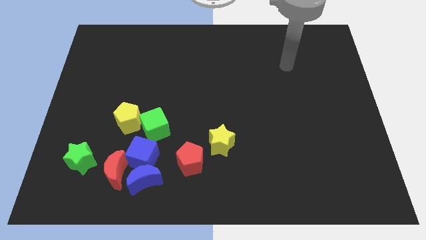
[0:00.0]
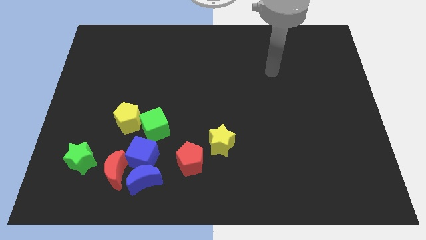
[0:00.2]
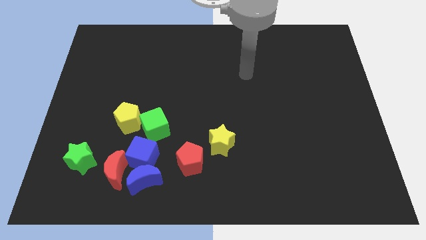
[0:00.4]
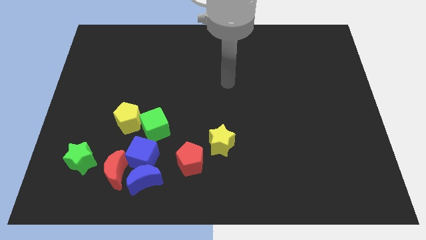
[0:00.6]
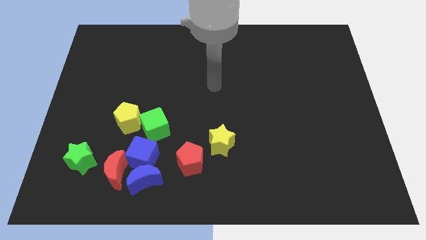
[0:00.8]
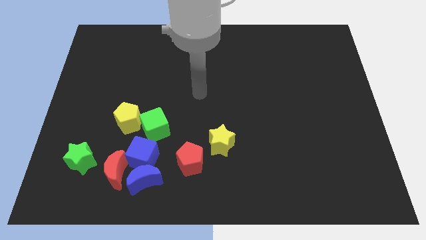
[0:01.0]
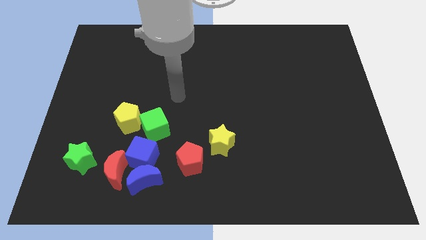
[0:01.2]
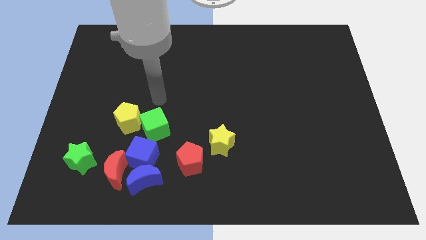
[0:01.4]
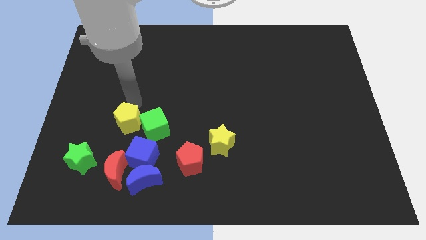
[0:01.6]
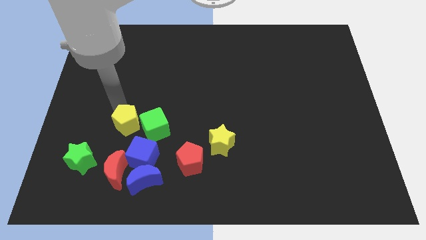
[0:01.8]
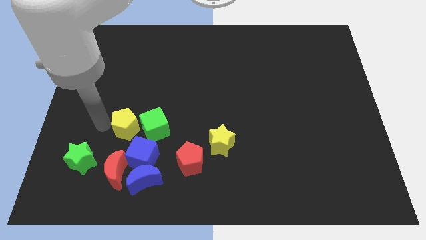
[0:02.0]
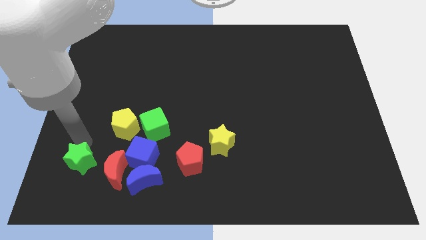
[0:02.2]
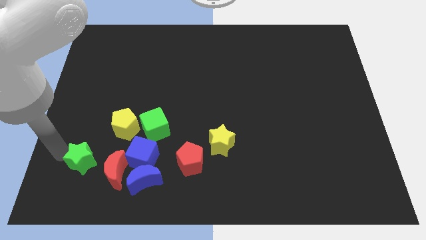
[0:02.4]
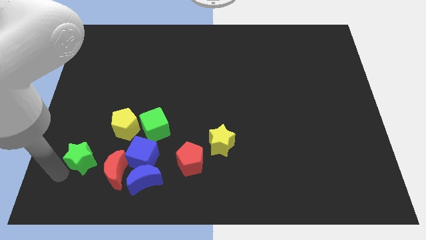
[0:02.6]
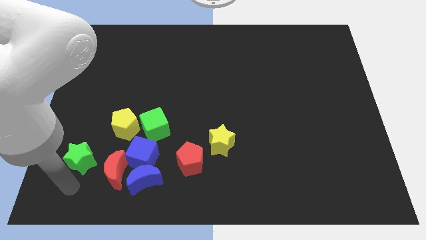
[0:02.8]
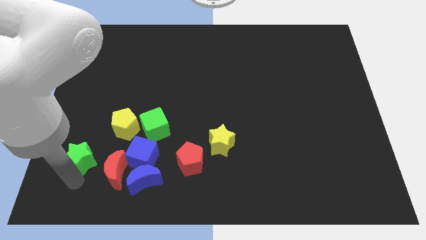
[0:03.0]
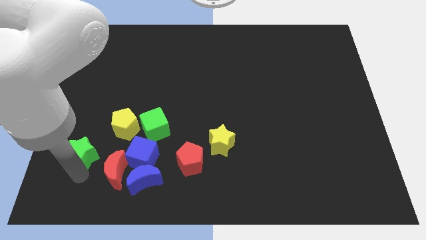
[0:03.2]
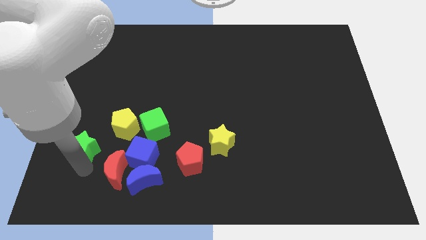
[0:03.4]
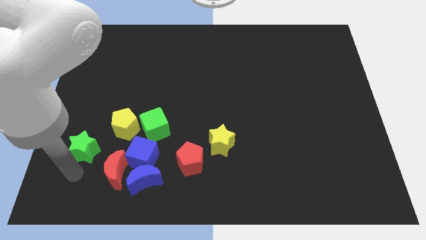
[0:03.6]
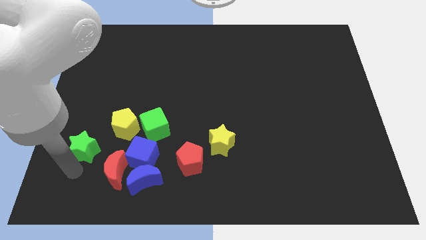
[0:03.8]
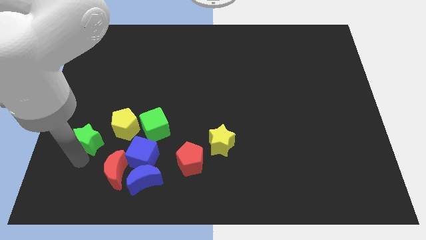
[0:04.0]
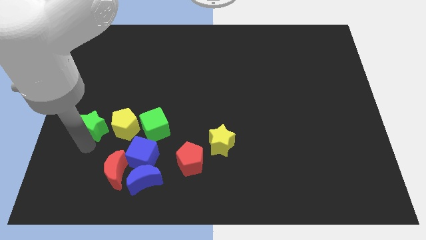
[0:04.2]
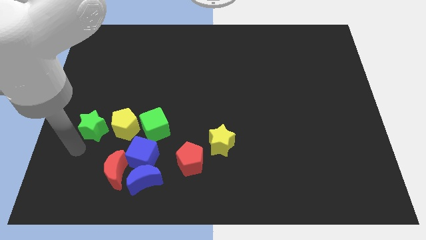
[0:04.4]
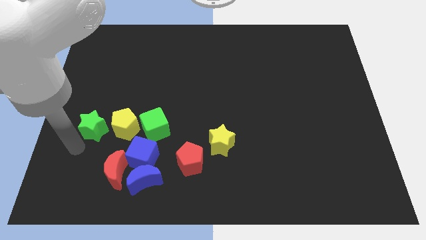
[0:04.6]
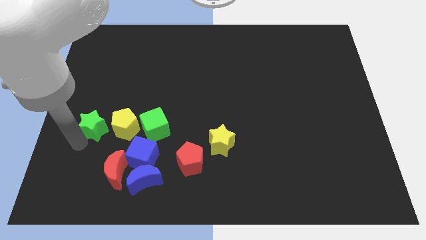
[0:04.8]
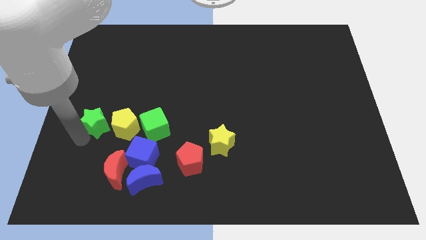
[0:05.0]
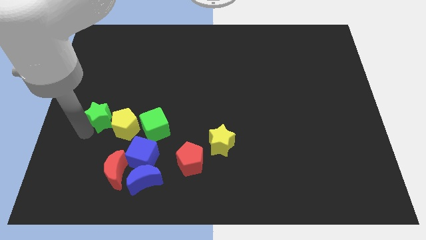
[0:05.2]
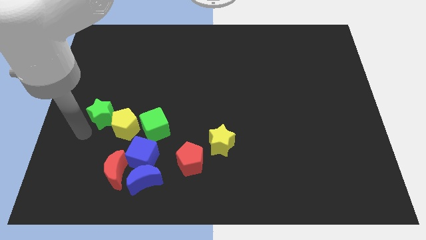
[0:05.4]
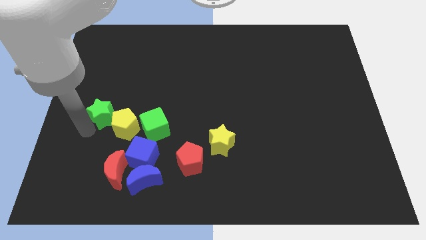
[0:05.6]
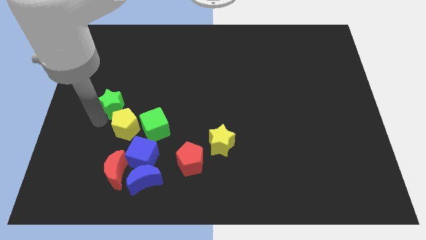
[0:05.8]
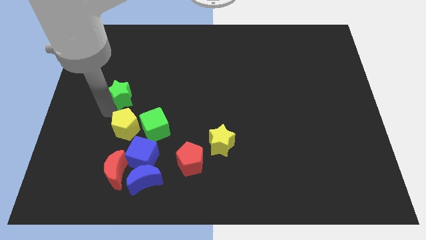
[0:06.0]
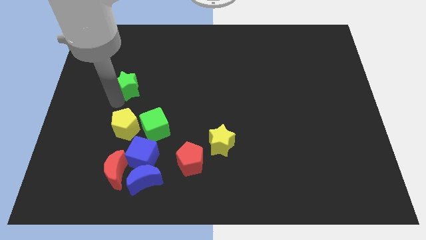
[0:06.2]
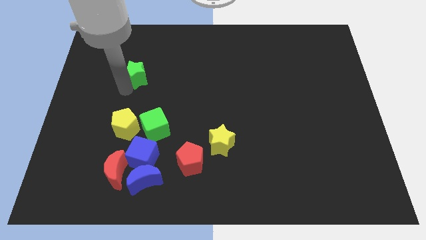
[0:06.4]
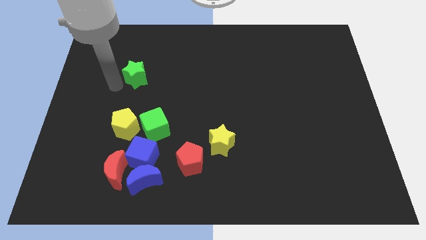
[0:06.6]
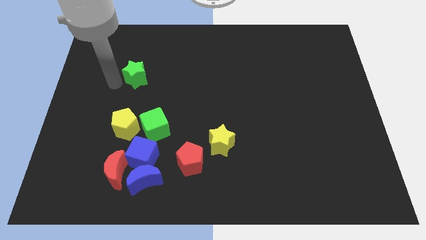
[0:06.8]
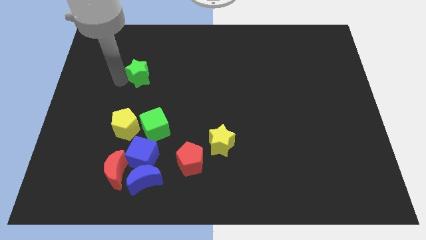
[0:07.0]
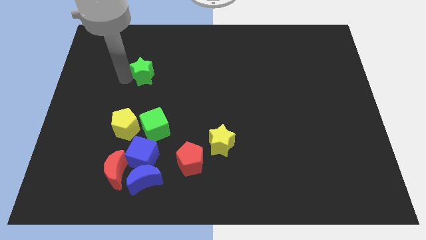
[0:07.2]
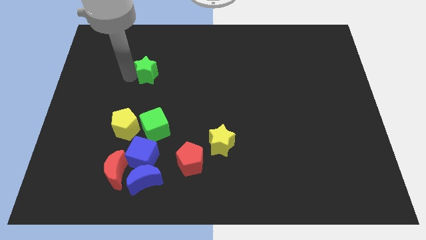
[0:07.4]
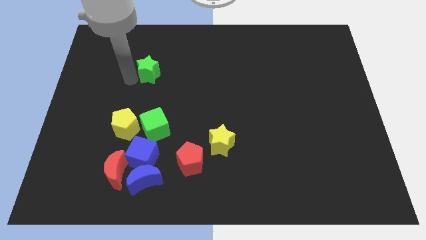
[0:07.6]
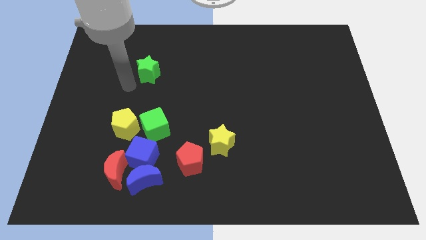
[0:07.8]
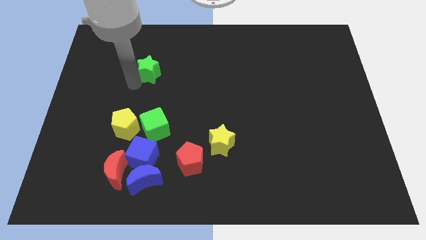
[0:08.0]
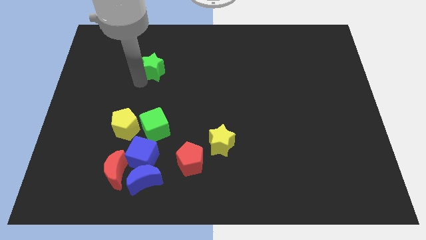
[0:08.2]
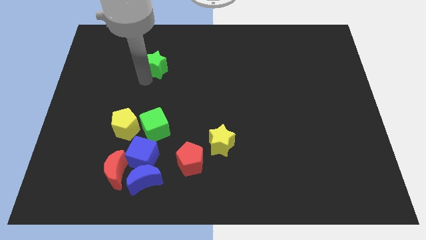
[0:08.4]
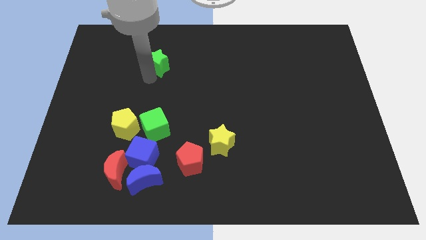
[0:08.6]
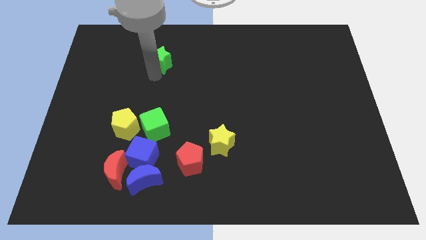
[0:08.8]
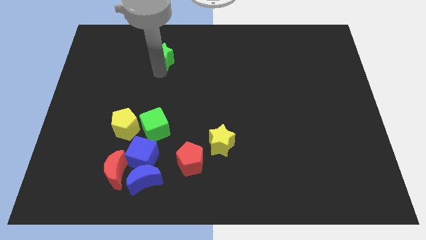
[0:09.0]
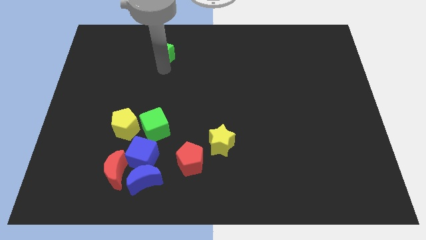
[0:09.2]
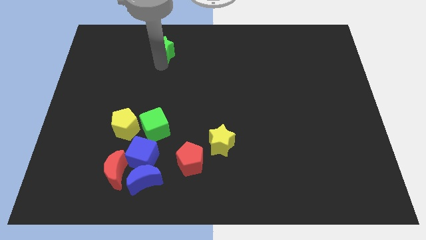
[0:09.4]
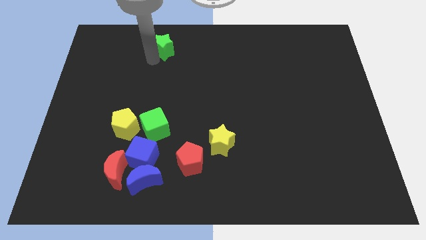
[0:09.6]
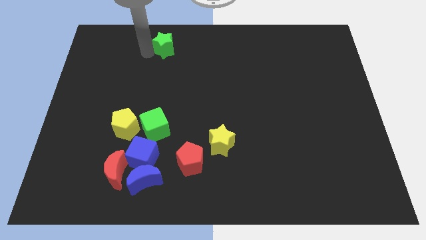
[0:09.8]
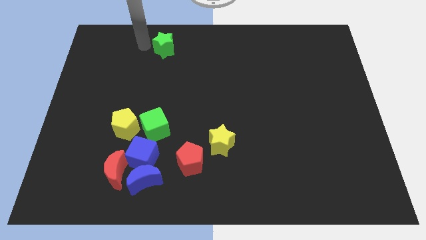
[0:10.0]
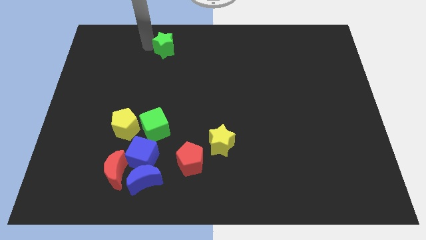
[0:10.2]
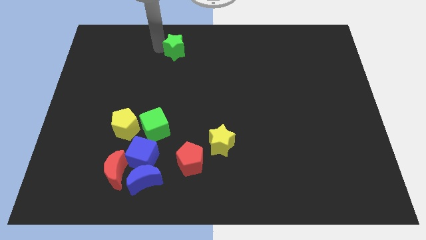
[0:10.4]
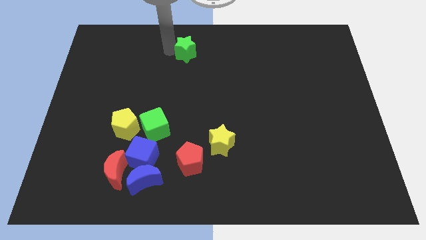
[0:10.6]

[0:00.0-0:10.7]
push the green star to the towards your base
